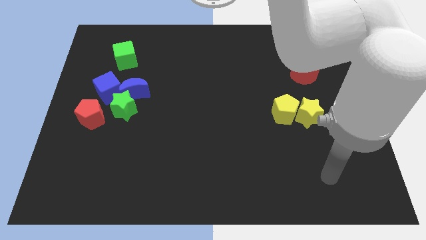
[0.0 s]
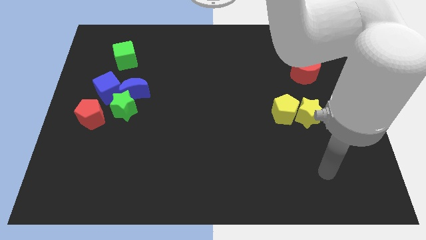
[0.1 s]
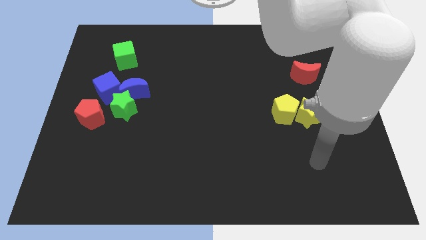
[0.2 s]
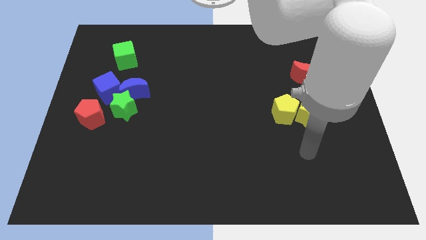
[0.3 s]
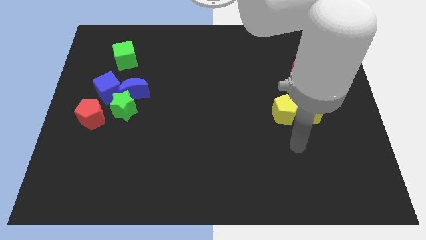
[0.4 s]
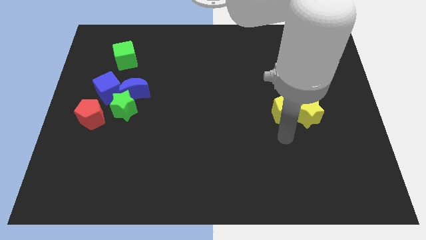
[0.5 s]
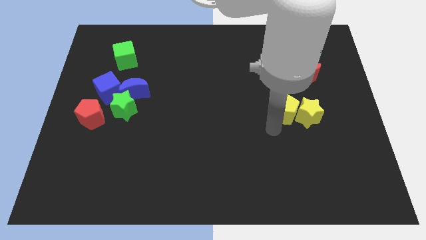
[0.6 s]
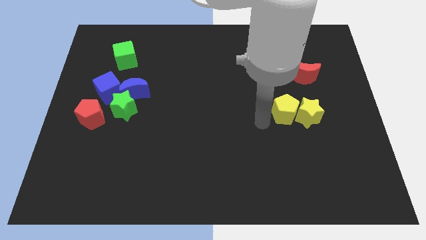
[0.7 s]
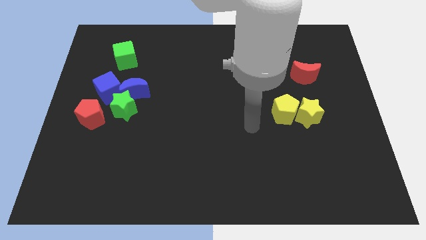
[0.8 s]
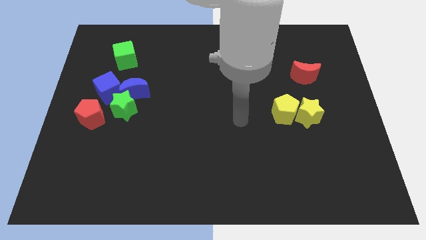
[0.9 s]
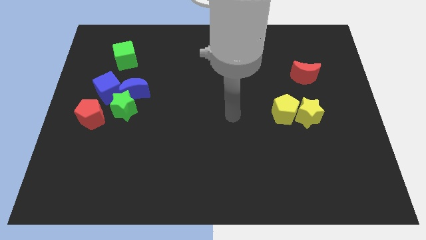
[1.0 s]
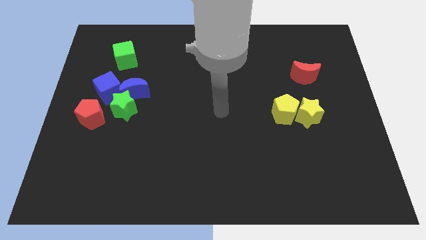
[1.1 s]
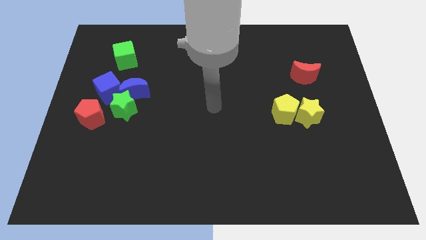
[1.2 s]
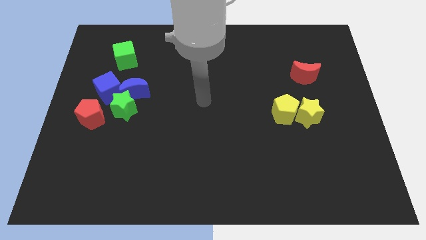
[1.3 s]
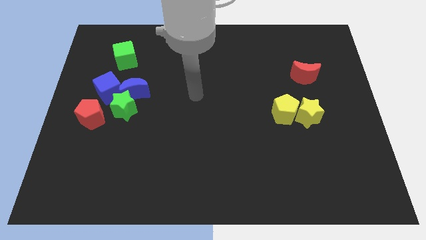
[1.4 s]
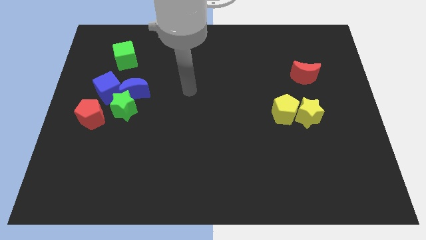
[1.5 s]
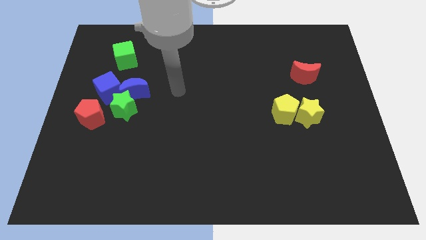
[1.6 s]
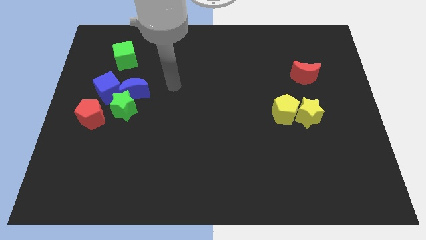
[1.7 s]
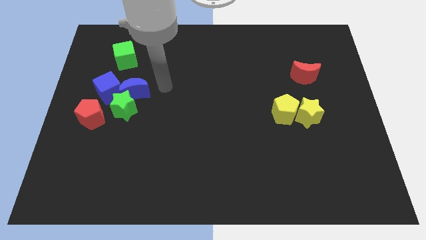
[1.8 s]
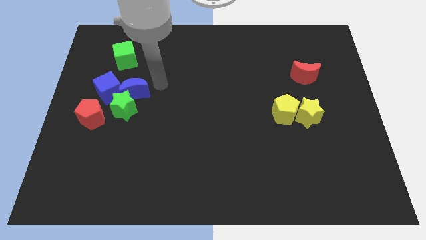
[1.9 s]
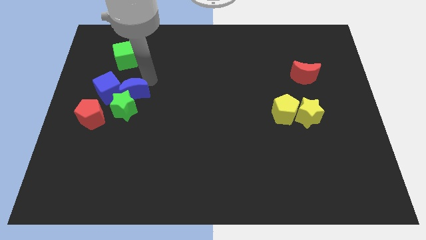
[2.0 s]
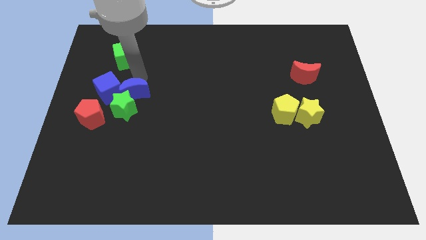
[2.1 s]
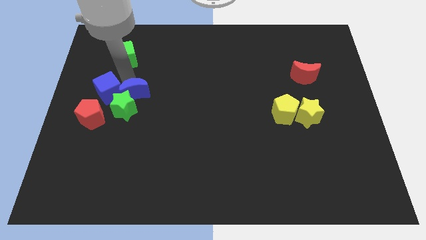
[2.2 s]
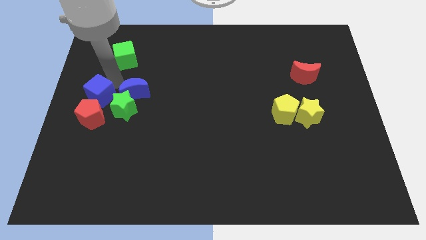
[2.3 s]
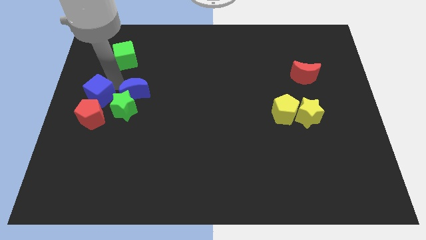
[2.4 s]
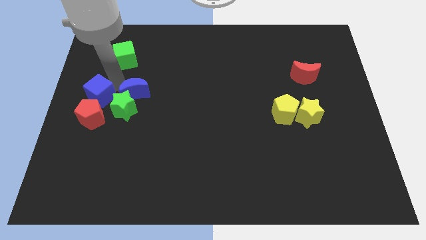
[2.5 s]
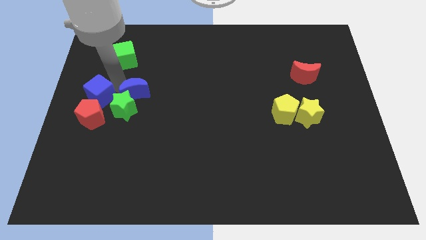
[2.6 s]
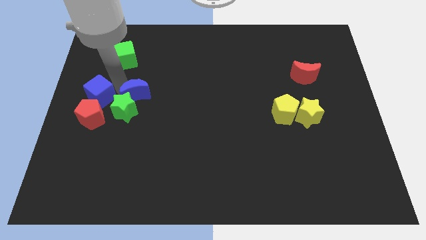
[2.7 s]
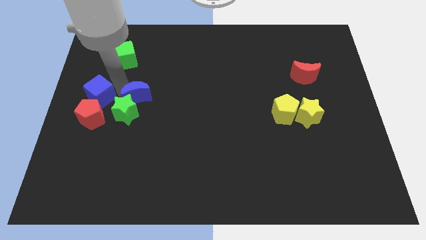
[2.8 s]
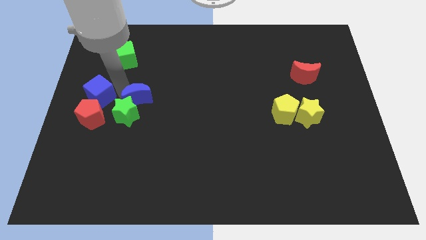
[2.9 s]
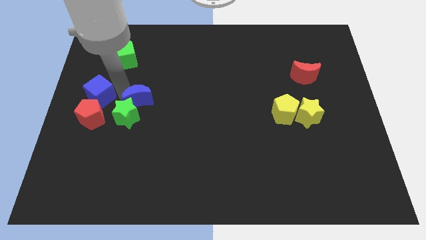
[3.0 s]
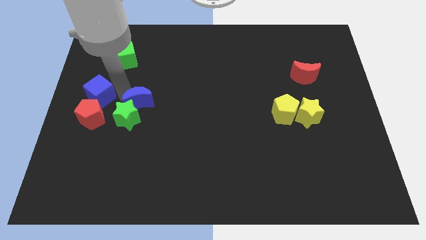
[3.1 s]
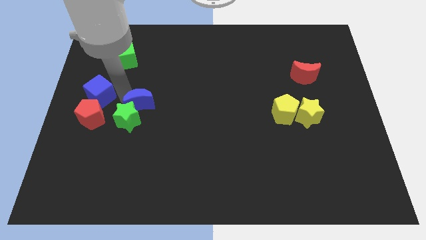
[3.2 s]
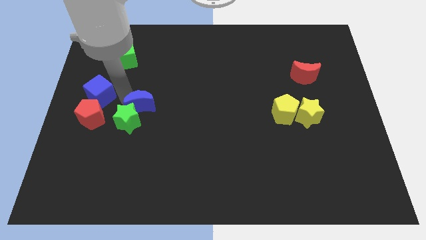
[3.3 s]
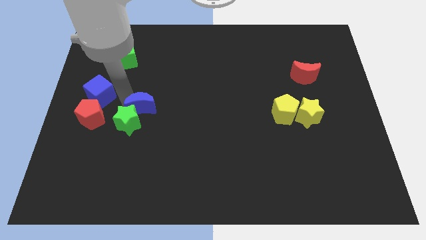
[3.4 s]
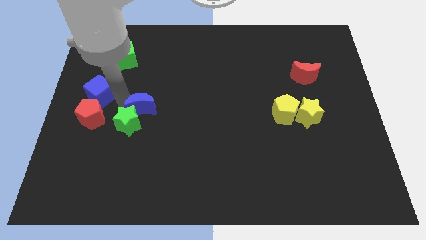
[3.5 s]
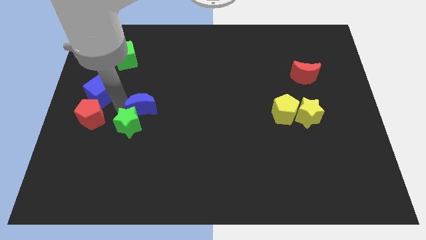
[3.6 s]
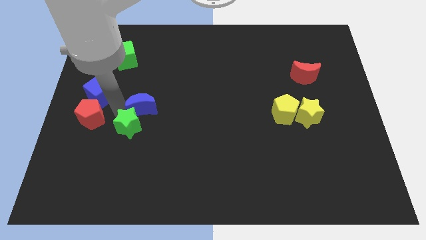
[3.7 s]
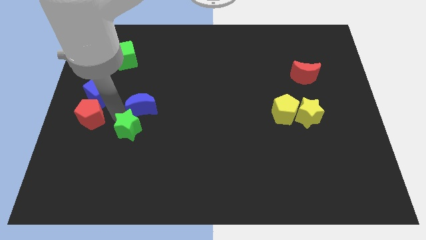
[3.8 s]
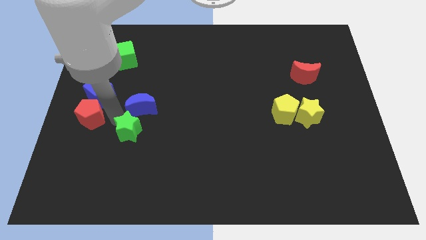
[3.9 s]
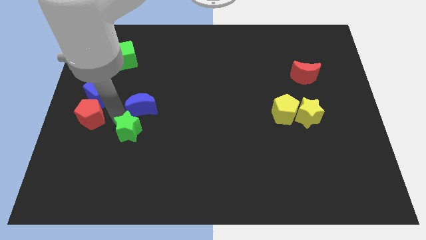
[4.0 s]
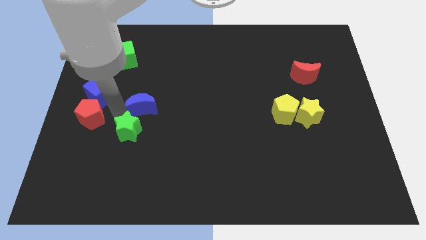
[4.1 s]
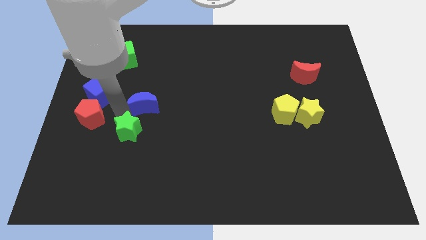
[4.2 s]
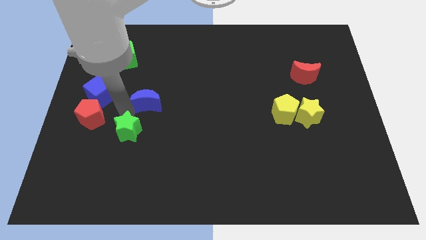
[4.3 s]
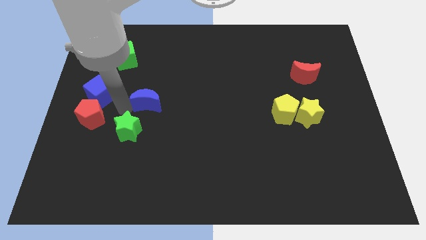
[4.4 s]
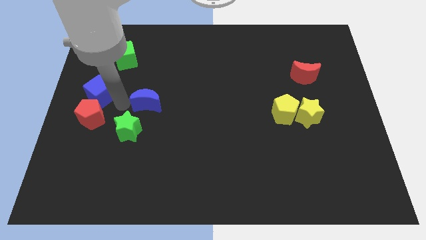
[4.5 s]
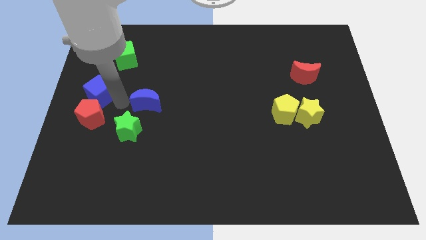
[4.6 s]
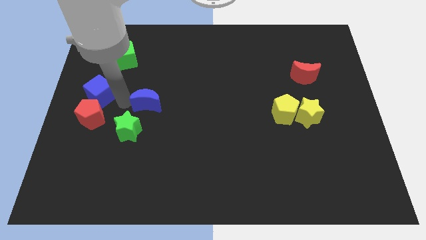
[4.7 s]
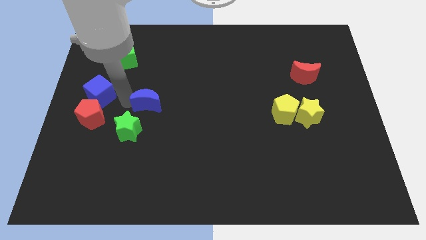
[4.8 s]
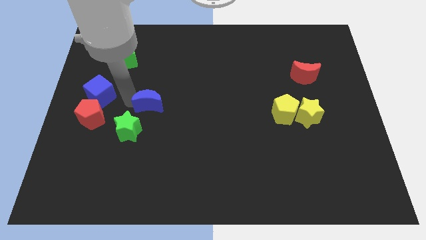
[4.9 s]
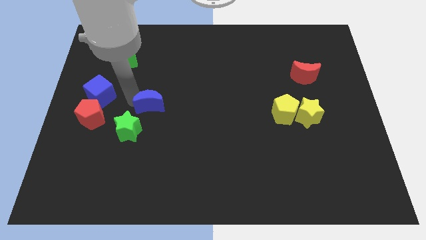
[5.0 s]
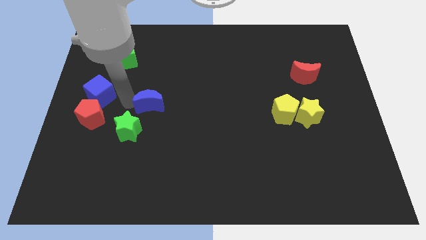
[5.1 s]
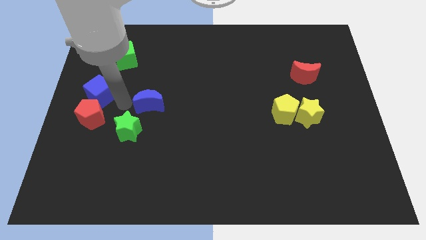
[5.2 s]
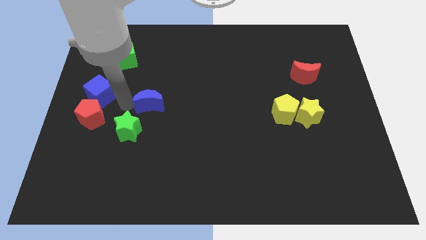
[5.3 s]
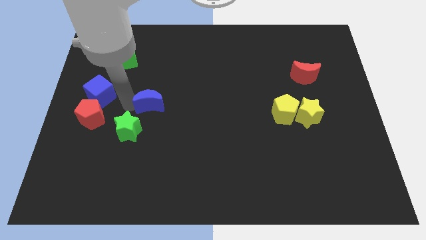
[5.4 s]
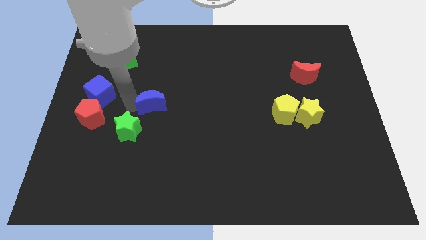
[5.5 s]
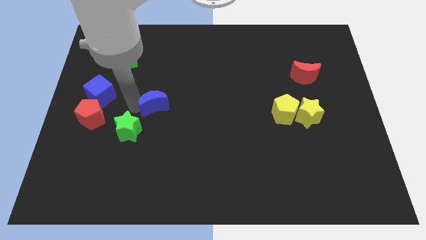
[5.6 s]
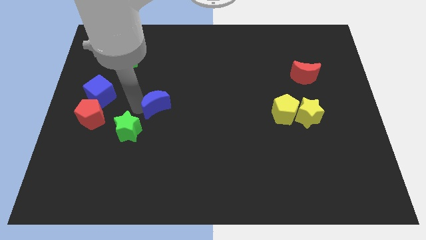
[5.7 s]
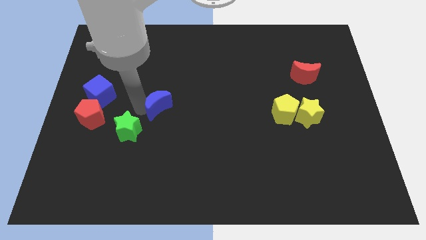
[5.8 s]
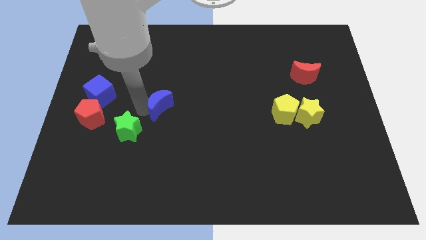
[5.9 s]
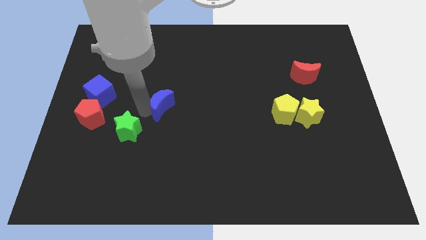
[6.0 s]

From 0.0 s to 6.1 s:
push the blue moon to the middle of the board
